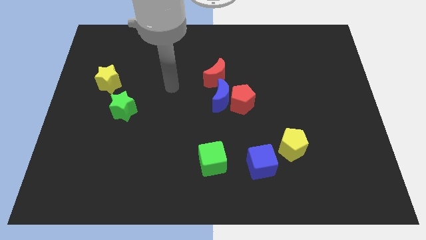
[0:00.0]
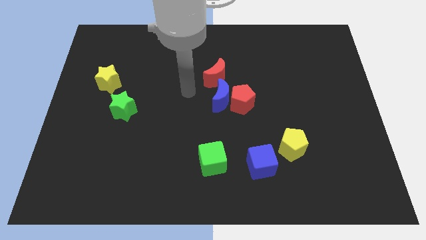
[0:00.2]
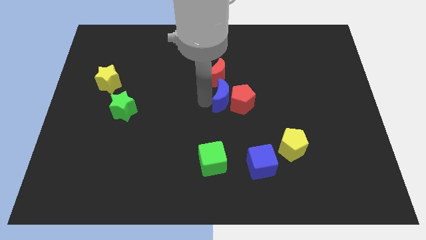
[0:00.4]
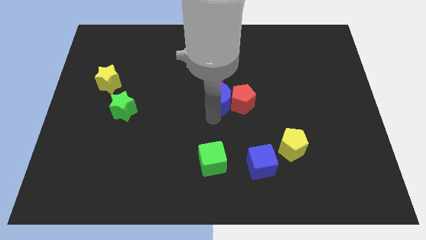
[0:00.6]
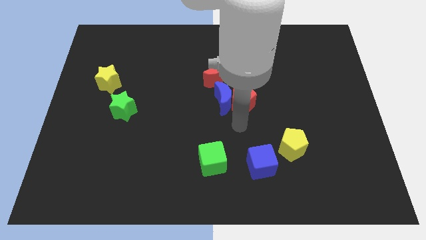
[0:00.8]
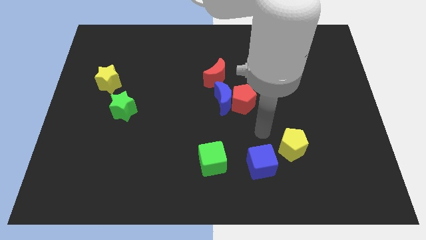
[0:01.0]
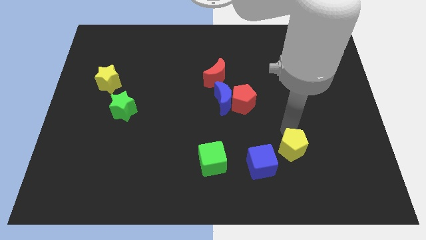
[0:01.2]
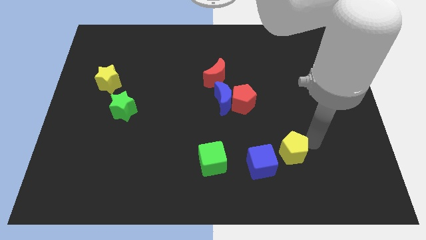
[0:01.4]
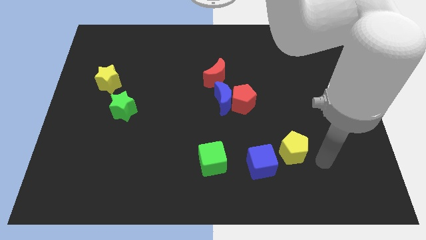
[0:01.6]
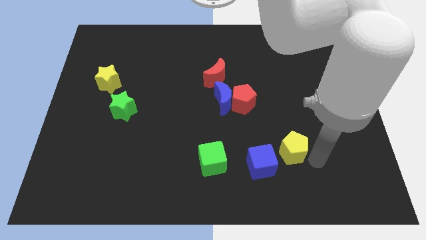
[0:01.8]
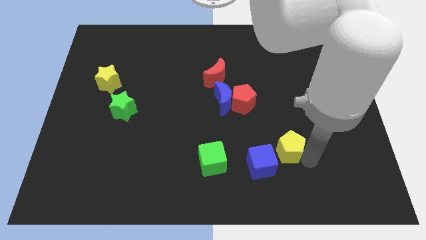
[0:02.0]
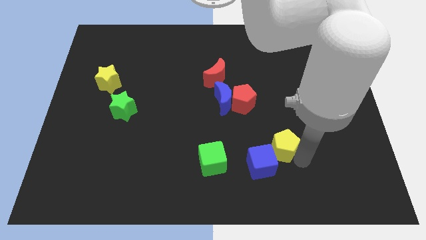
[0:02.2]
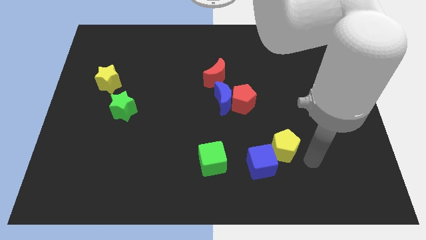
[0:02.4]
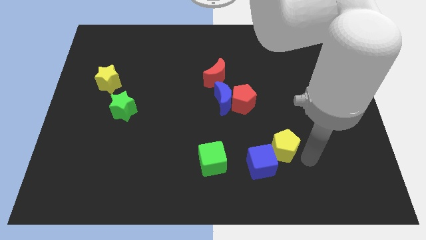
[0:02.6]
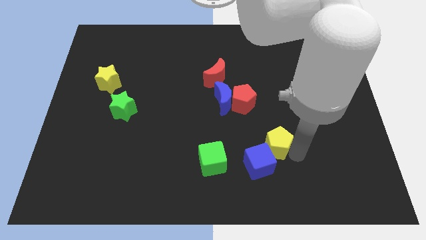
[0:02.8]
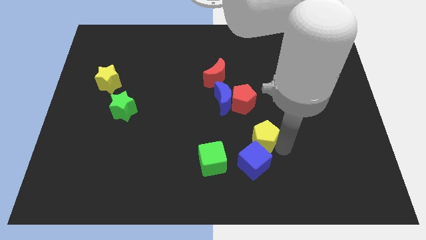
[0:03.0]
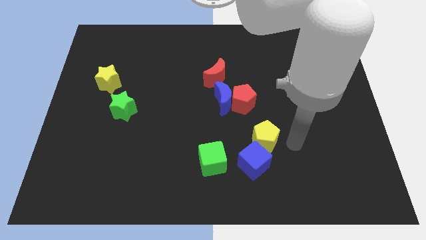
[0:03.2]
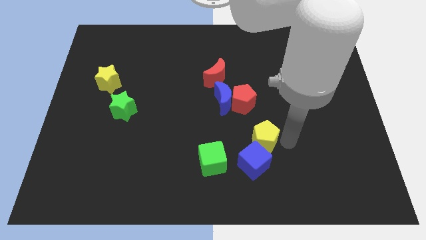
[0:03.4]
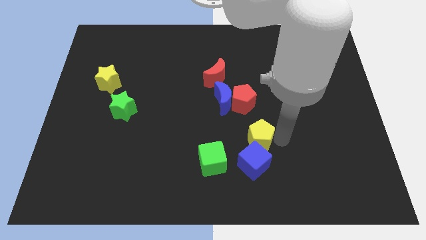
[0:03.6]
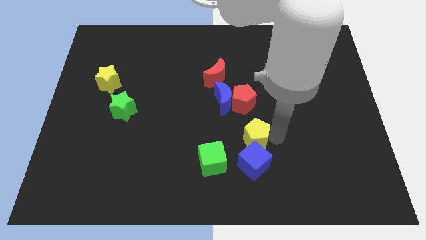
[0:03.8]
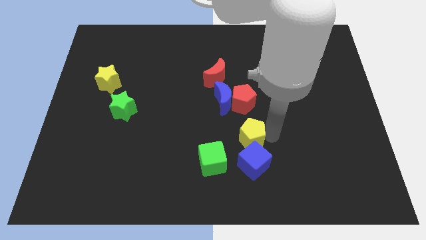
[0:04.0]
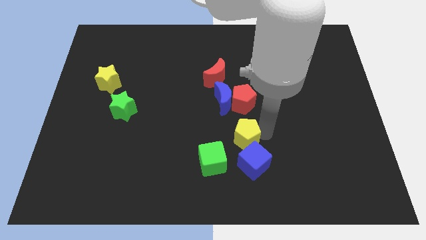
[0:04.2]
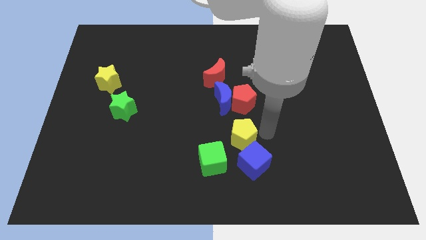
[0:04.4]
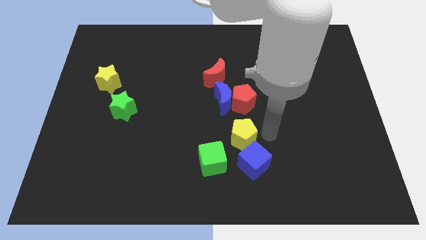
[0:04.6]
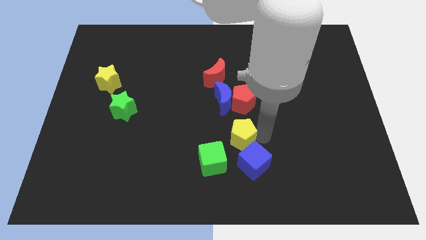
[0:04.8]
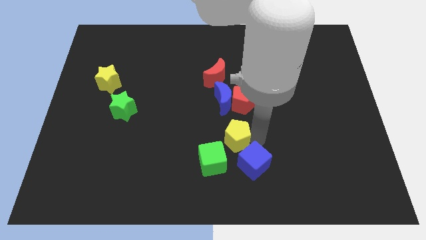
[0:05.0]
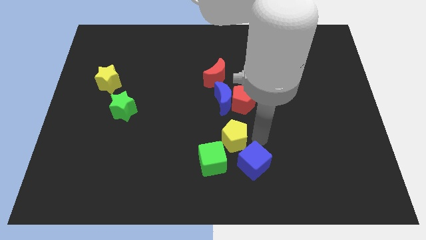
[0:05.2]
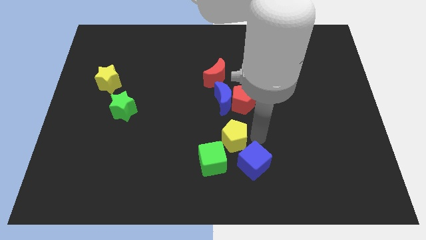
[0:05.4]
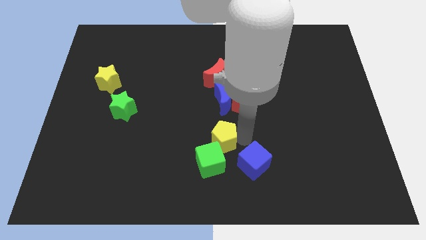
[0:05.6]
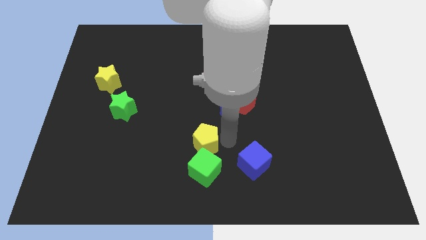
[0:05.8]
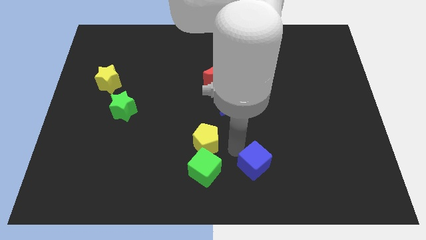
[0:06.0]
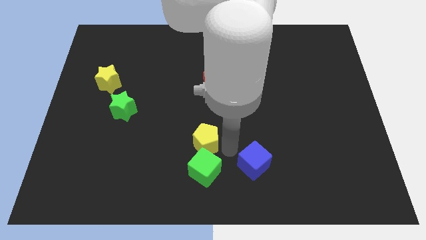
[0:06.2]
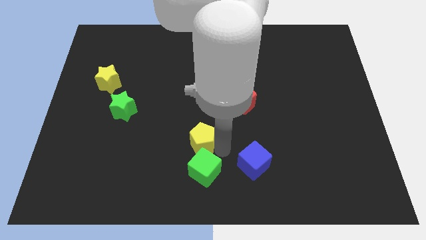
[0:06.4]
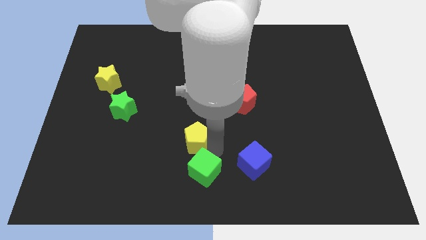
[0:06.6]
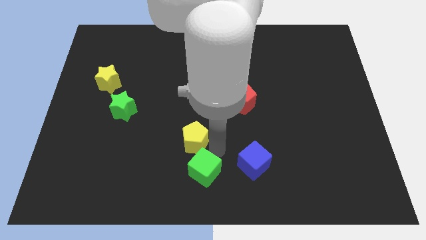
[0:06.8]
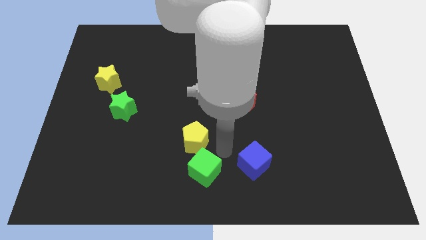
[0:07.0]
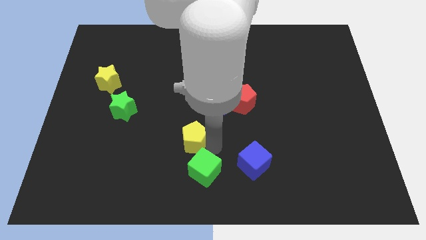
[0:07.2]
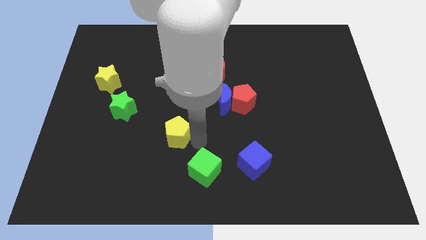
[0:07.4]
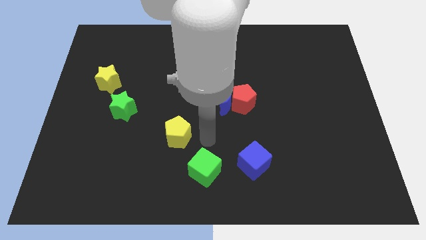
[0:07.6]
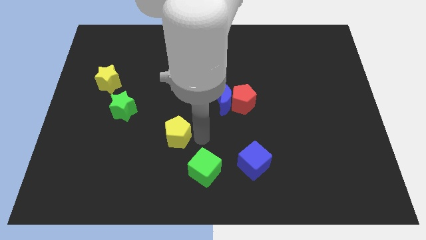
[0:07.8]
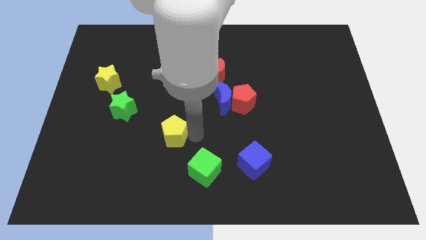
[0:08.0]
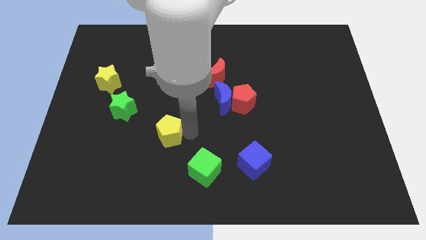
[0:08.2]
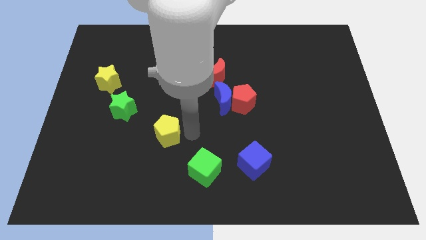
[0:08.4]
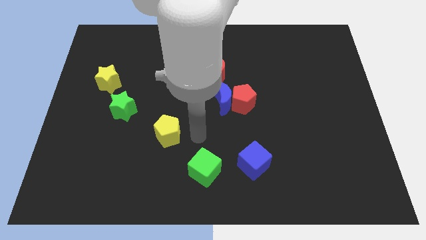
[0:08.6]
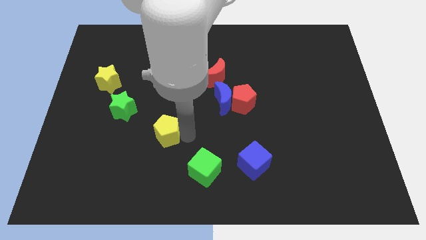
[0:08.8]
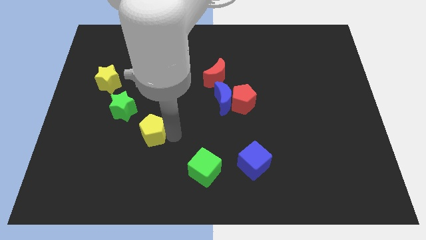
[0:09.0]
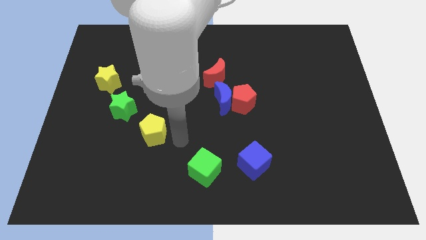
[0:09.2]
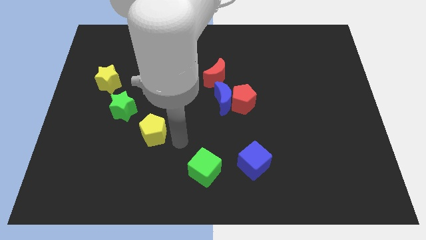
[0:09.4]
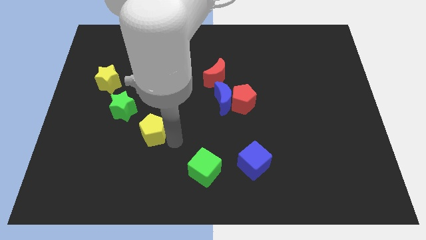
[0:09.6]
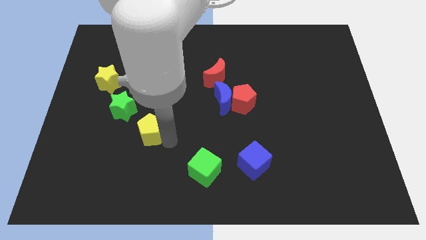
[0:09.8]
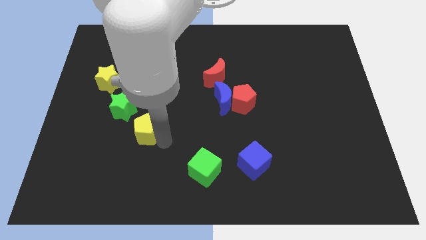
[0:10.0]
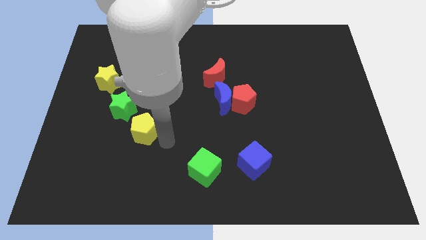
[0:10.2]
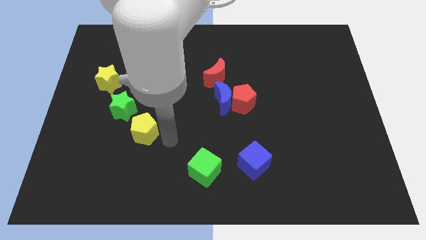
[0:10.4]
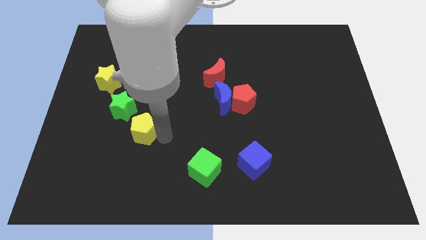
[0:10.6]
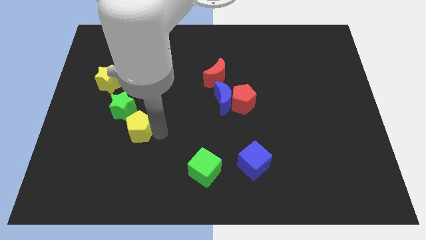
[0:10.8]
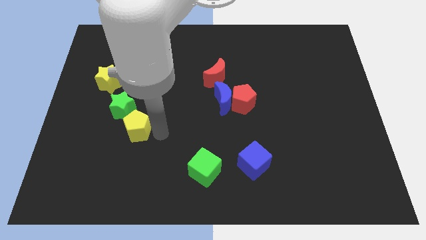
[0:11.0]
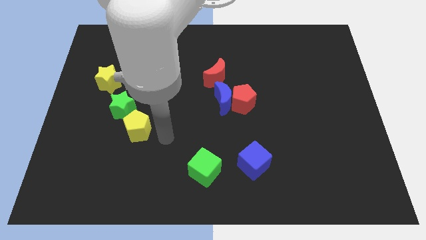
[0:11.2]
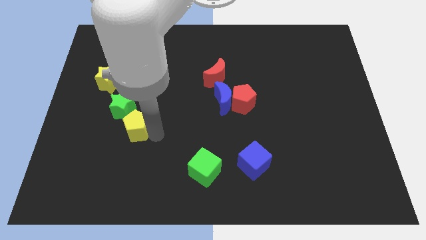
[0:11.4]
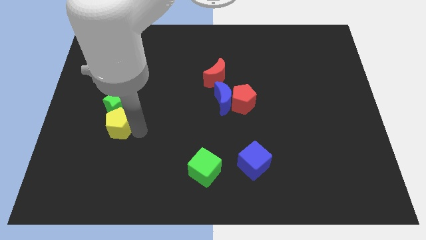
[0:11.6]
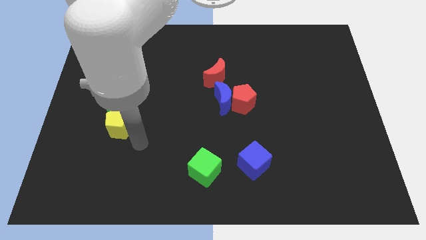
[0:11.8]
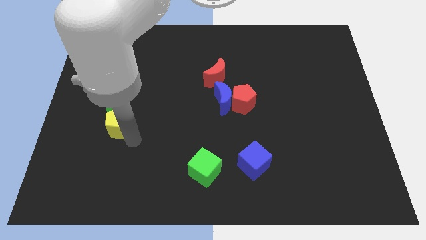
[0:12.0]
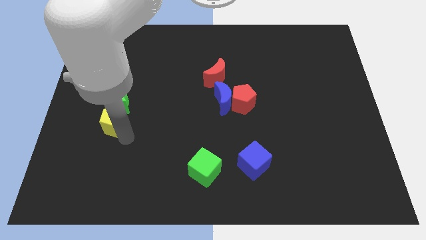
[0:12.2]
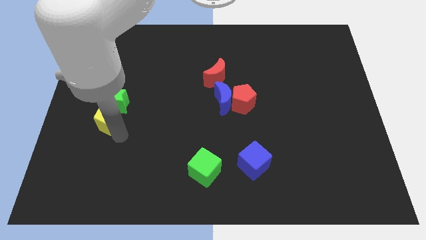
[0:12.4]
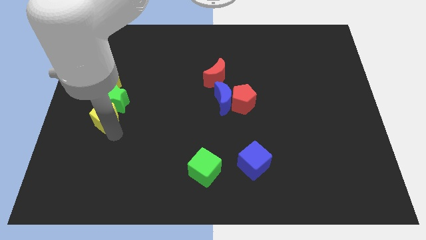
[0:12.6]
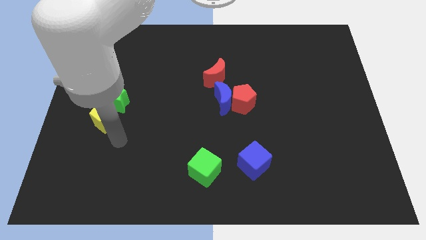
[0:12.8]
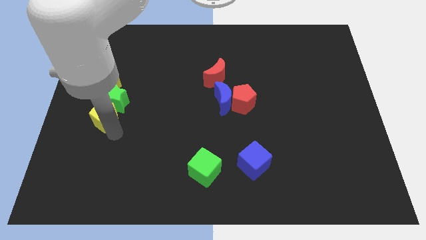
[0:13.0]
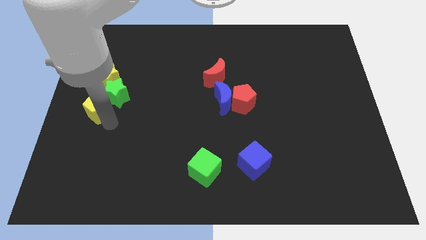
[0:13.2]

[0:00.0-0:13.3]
slide the yellow pentagon to the left side of the board

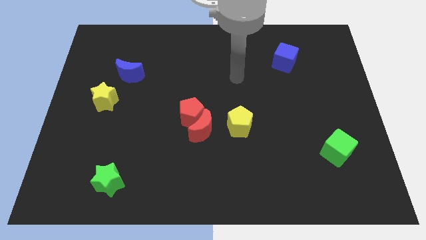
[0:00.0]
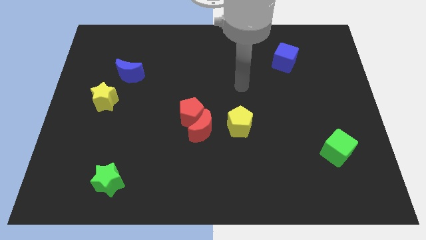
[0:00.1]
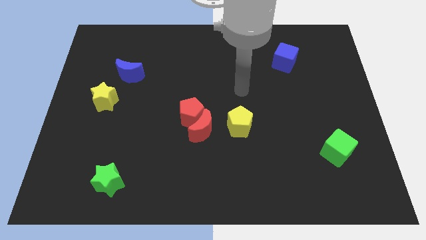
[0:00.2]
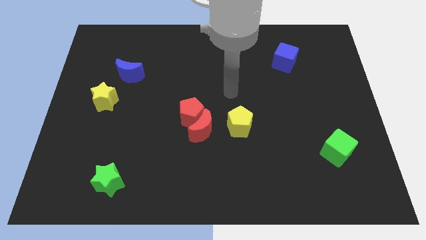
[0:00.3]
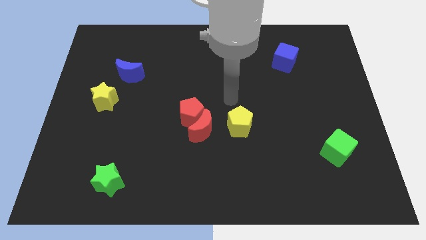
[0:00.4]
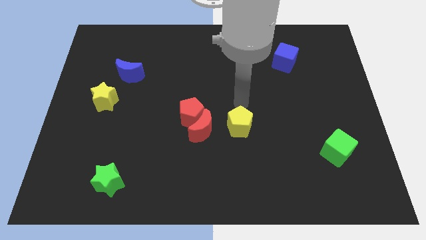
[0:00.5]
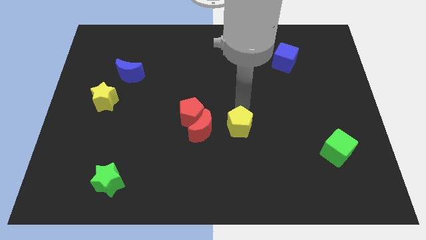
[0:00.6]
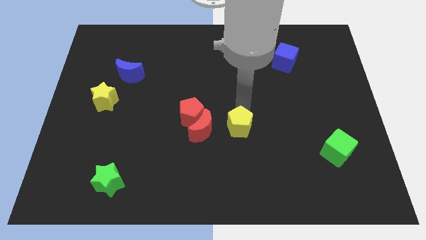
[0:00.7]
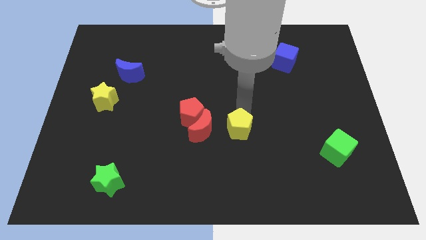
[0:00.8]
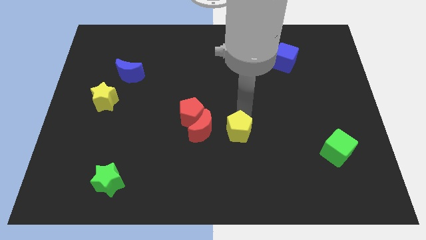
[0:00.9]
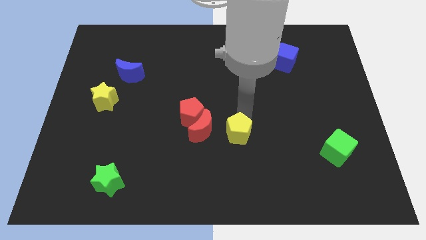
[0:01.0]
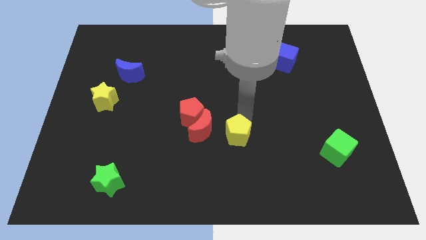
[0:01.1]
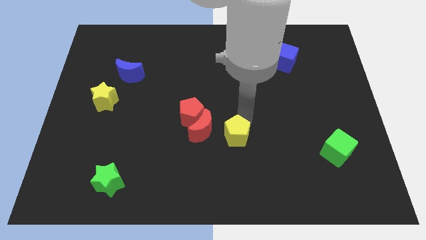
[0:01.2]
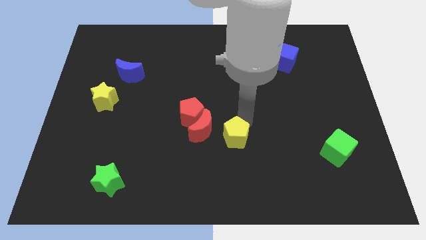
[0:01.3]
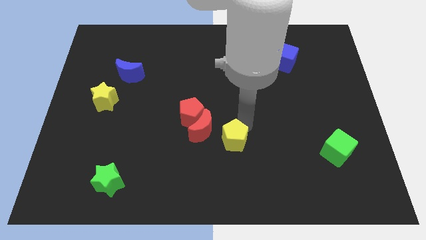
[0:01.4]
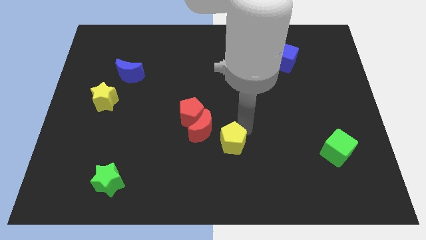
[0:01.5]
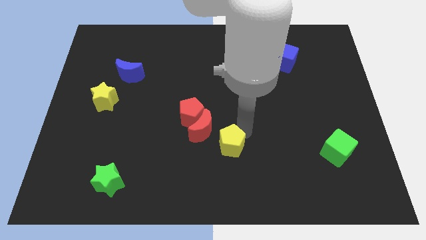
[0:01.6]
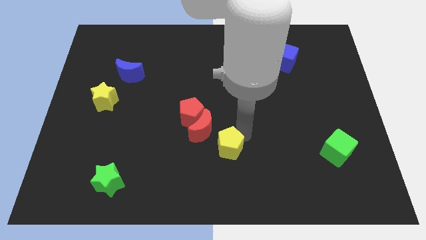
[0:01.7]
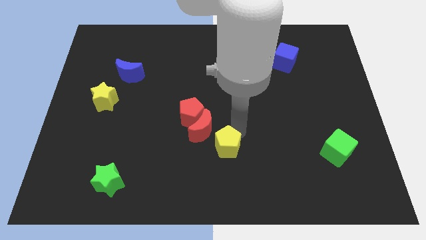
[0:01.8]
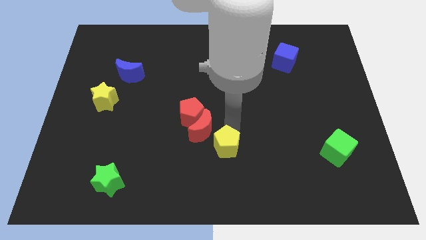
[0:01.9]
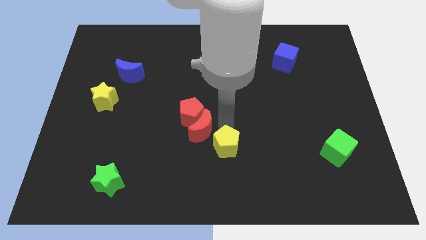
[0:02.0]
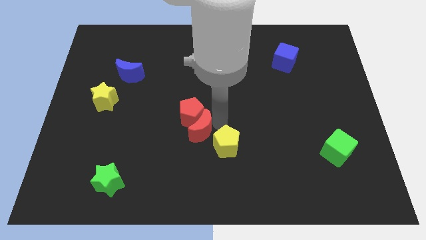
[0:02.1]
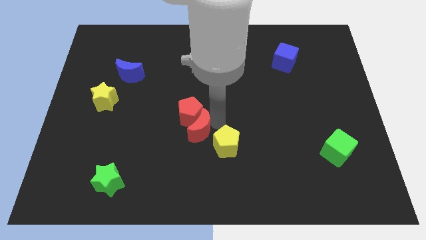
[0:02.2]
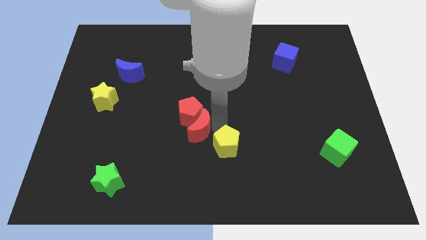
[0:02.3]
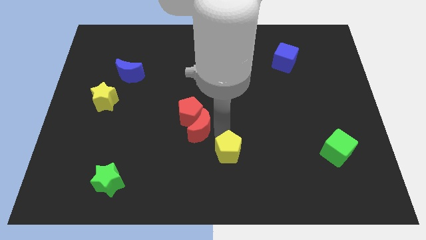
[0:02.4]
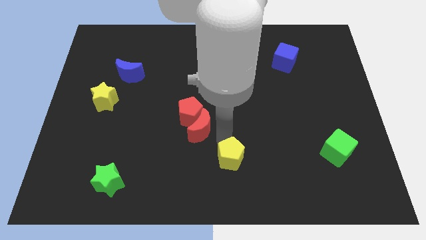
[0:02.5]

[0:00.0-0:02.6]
slide the yellow pentagon to the bottom side
